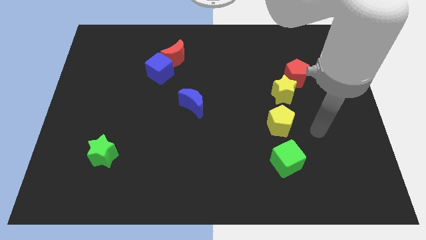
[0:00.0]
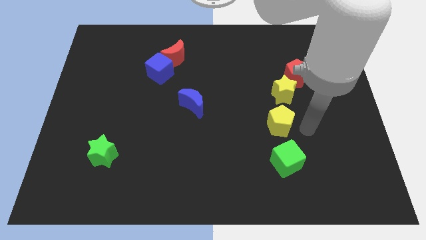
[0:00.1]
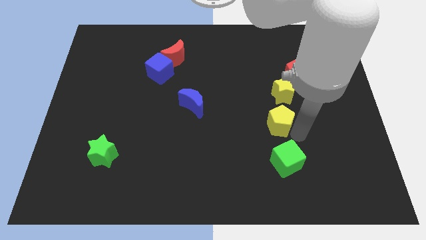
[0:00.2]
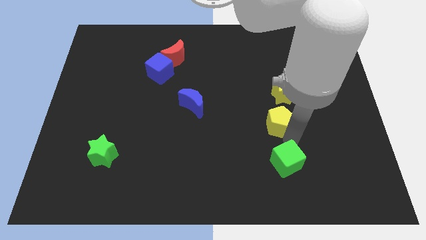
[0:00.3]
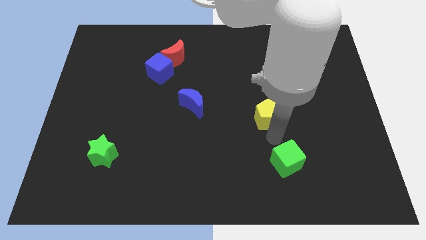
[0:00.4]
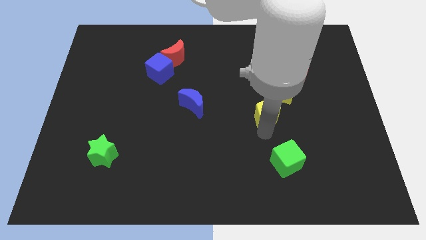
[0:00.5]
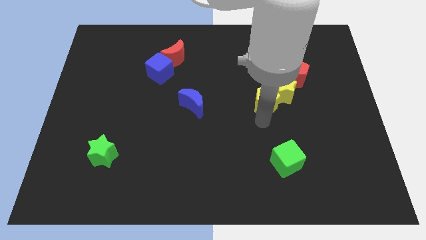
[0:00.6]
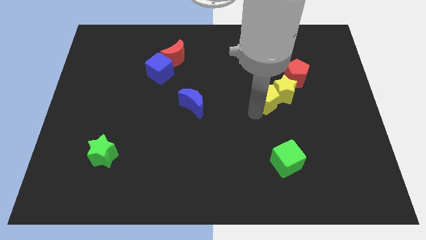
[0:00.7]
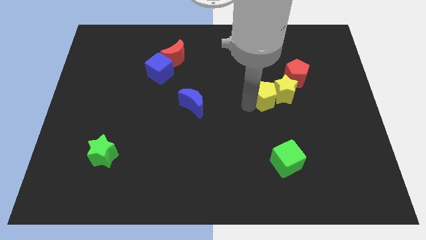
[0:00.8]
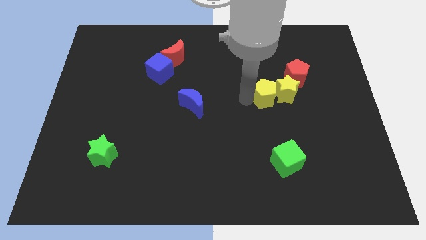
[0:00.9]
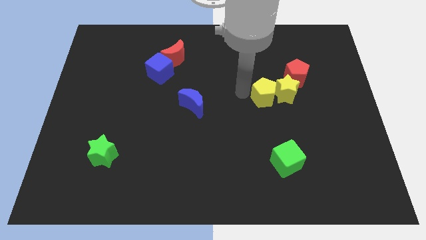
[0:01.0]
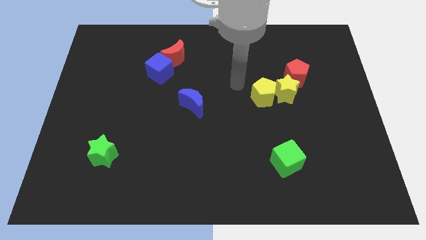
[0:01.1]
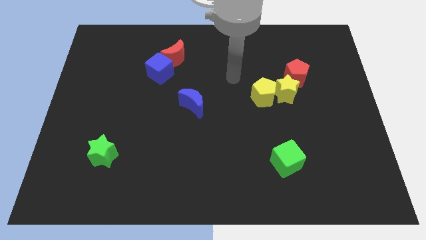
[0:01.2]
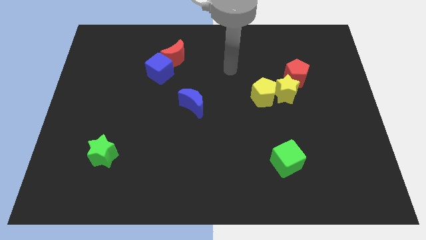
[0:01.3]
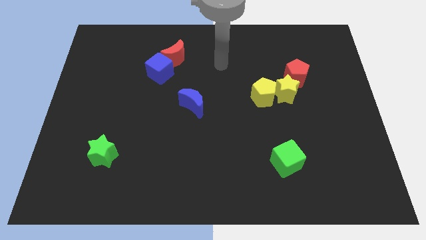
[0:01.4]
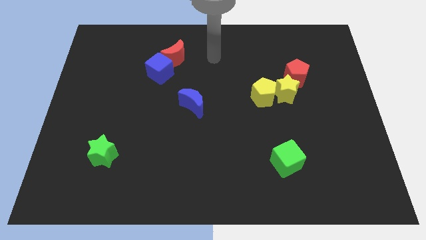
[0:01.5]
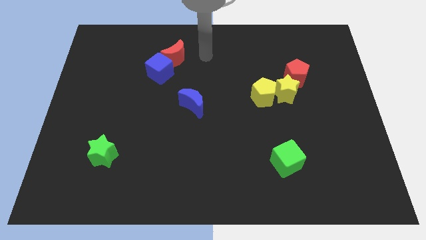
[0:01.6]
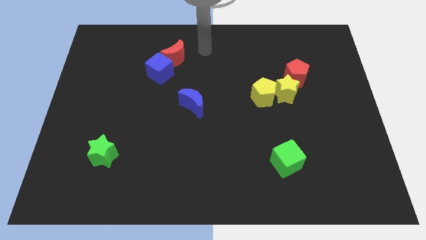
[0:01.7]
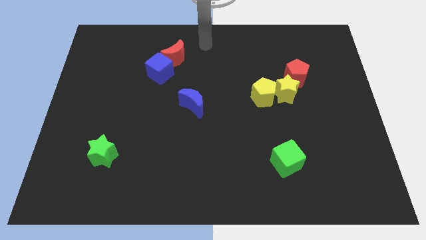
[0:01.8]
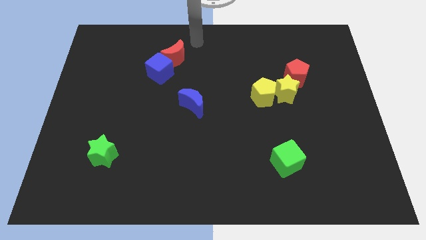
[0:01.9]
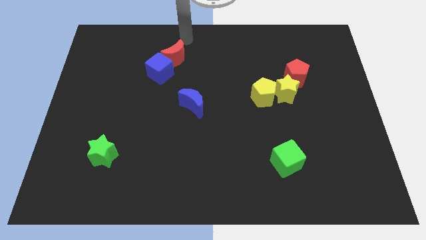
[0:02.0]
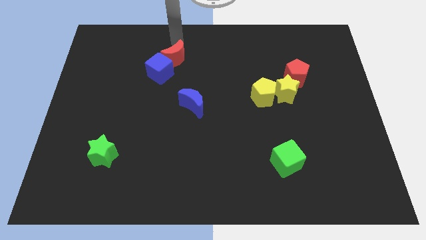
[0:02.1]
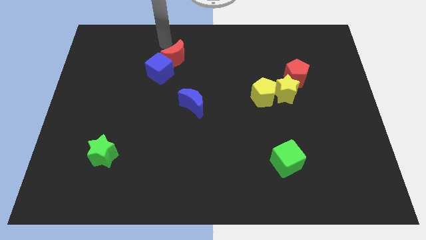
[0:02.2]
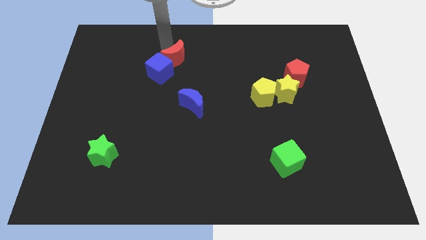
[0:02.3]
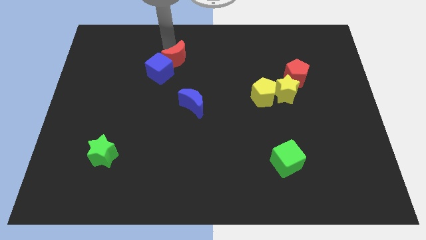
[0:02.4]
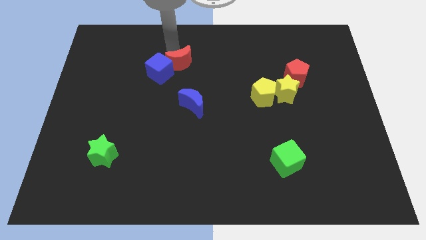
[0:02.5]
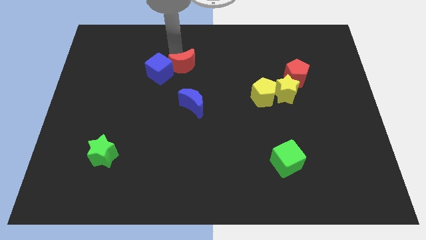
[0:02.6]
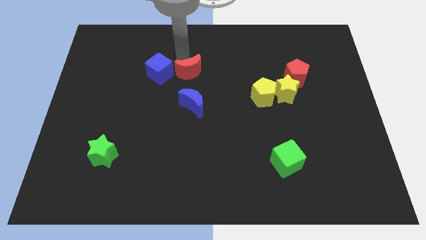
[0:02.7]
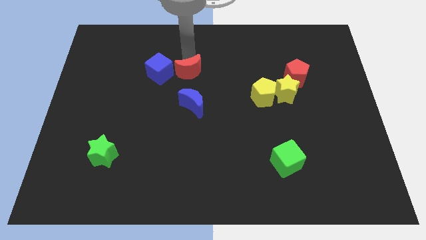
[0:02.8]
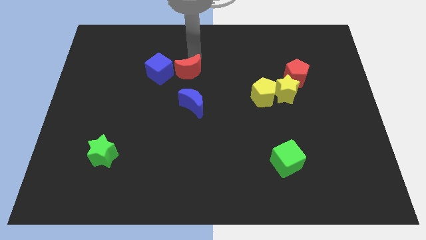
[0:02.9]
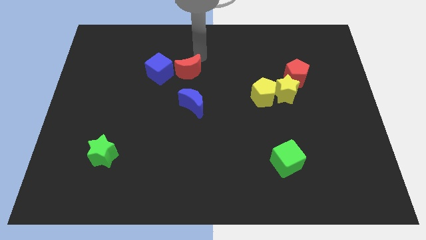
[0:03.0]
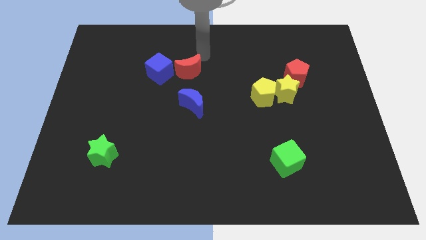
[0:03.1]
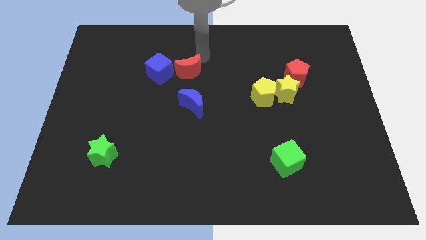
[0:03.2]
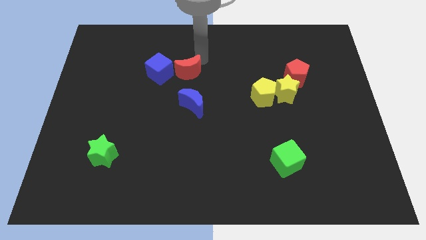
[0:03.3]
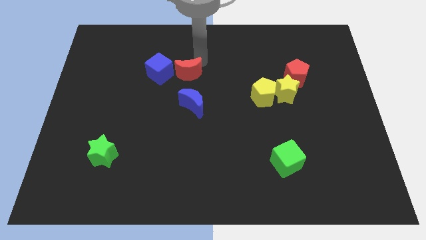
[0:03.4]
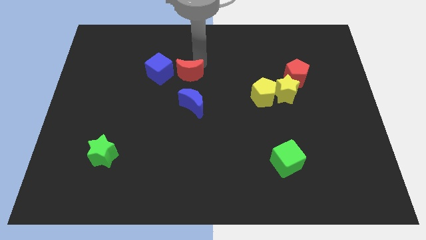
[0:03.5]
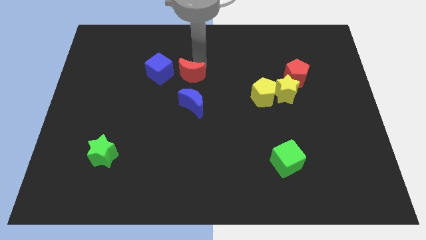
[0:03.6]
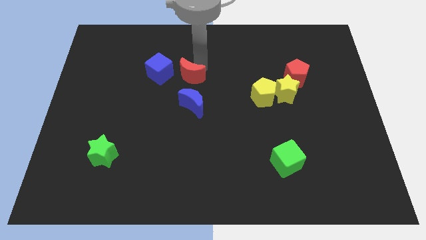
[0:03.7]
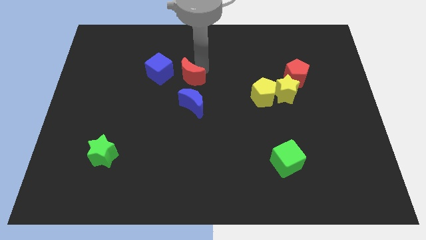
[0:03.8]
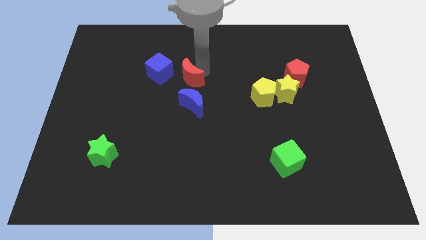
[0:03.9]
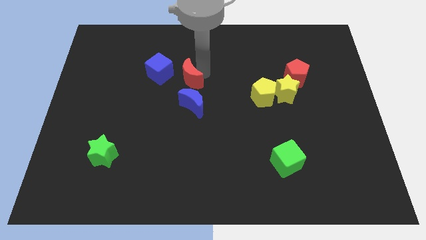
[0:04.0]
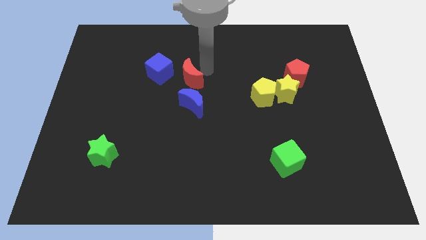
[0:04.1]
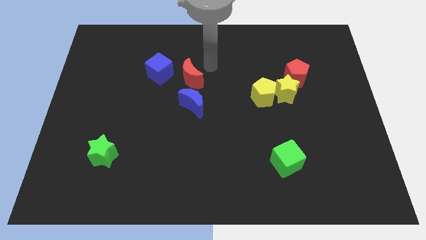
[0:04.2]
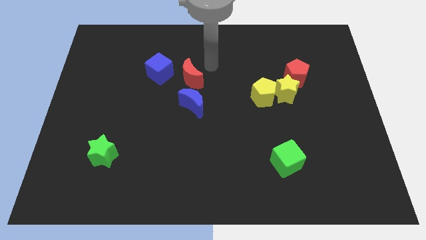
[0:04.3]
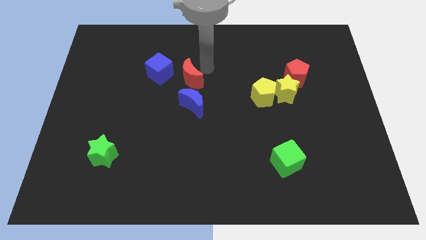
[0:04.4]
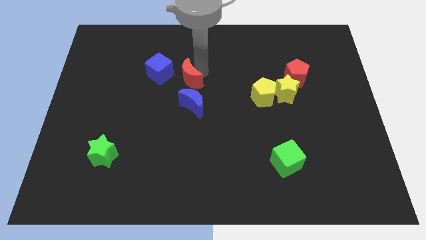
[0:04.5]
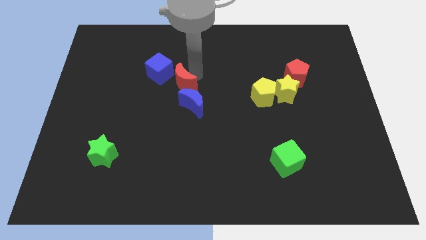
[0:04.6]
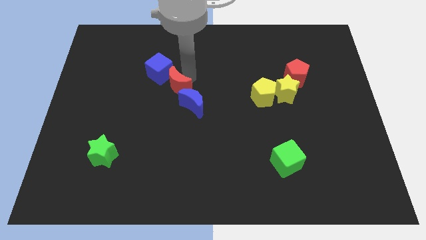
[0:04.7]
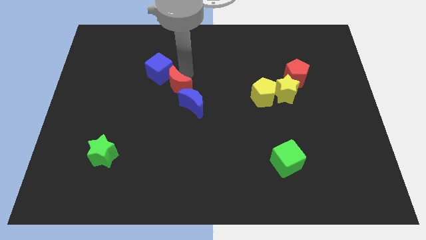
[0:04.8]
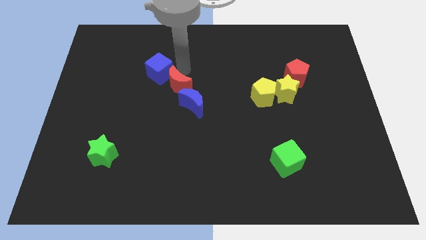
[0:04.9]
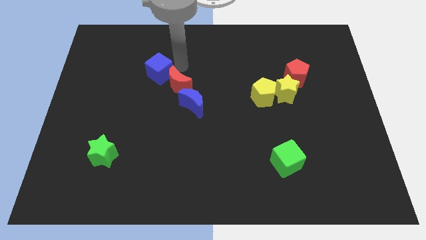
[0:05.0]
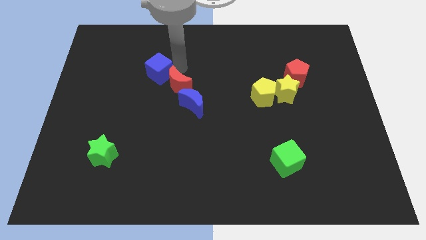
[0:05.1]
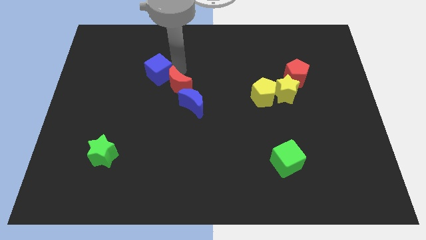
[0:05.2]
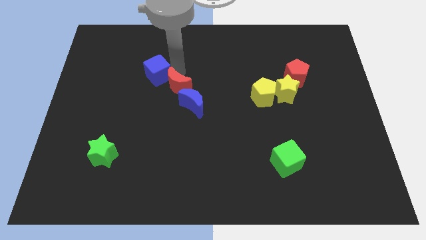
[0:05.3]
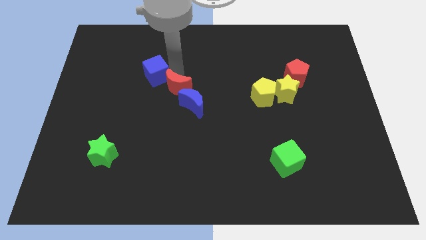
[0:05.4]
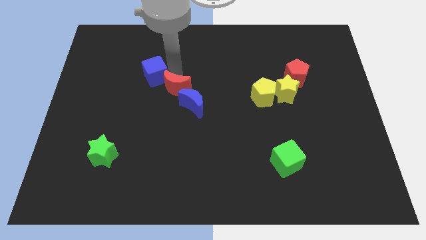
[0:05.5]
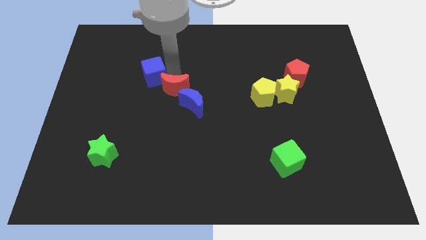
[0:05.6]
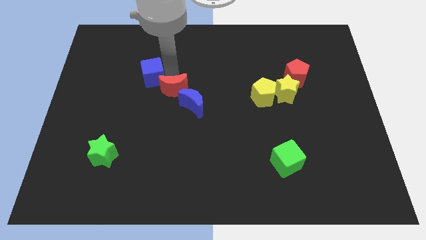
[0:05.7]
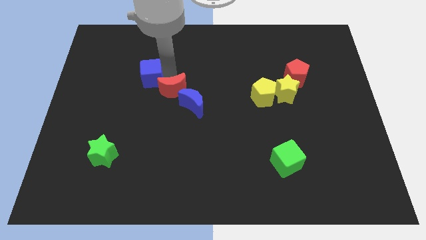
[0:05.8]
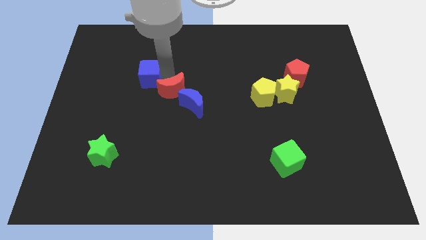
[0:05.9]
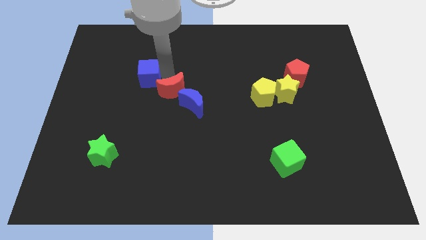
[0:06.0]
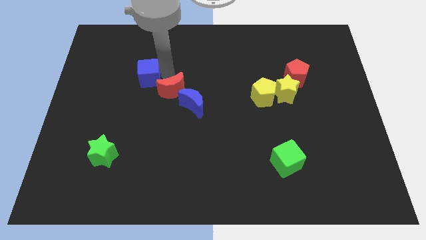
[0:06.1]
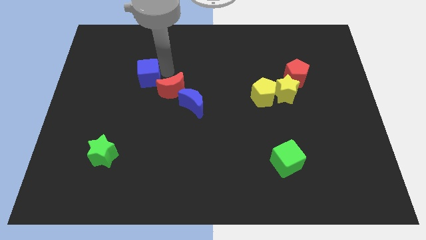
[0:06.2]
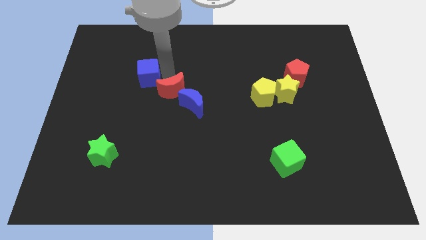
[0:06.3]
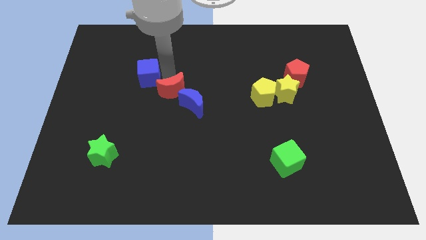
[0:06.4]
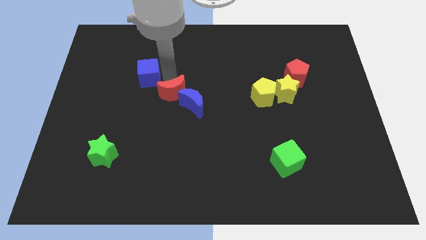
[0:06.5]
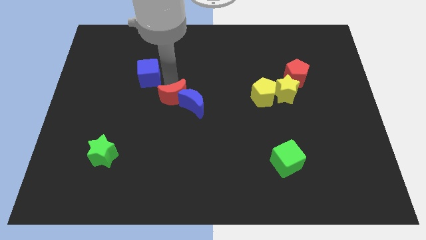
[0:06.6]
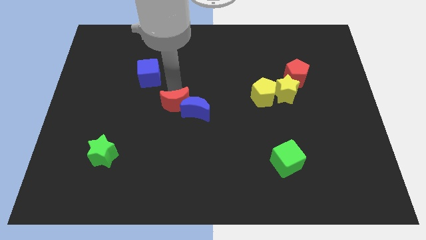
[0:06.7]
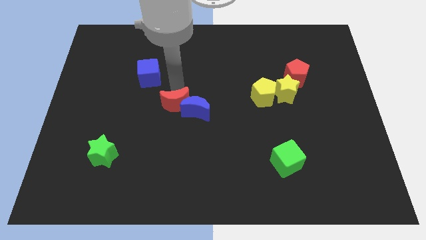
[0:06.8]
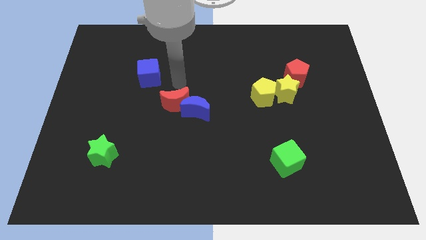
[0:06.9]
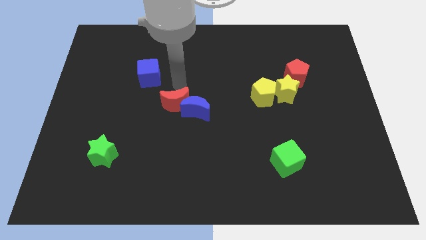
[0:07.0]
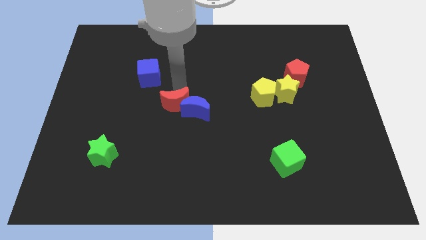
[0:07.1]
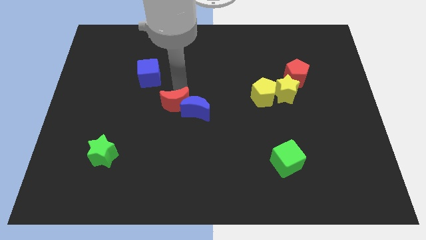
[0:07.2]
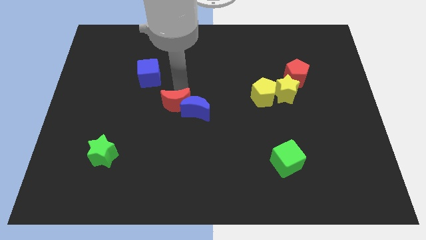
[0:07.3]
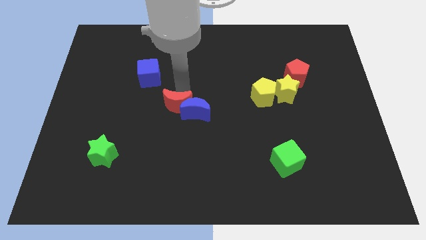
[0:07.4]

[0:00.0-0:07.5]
put the red moon to the bottom left of the blue moon
